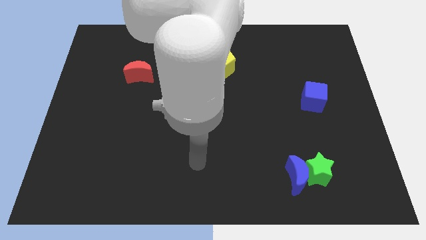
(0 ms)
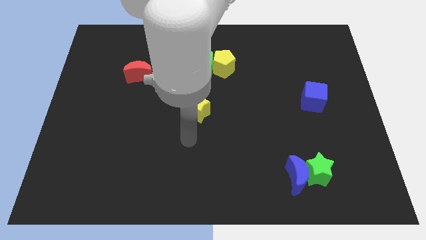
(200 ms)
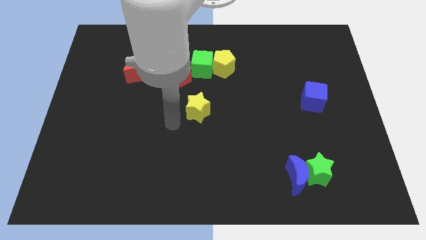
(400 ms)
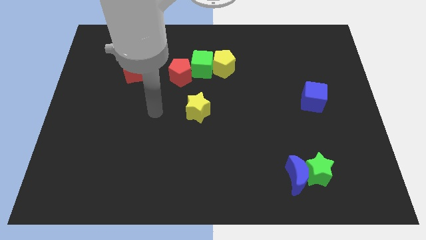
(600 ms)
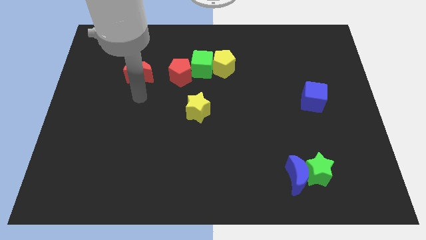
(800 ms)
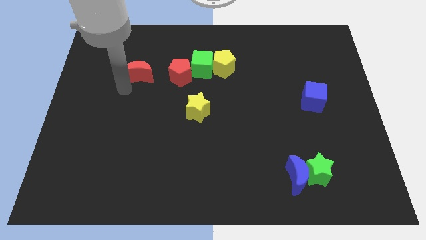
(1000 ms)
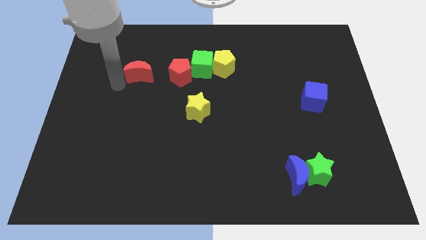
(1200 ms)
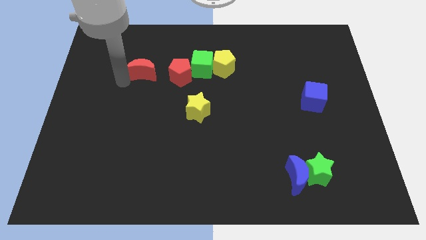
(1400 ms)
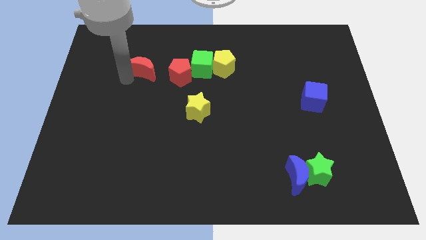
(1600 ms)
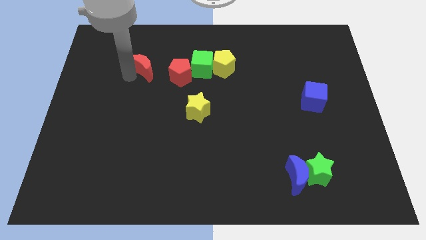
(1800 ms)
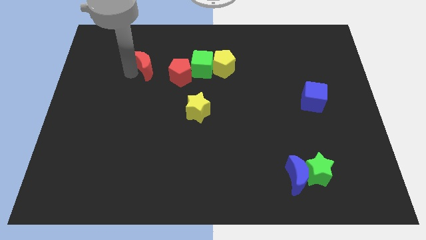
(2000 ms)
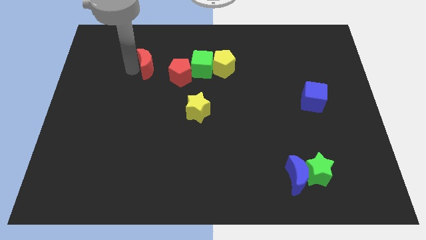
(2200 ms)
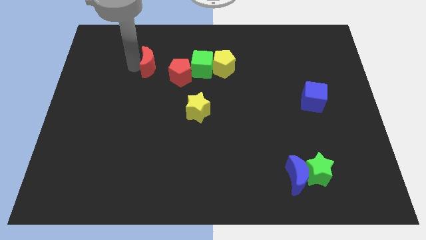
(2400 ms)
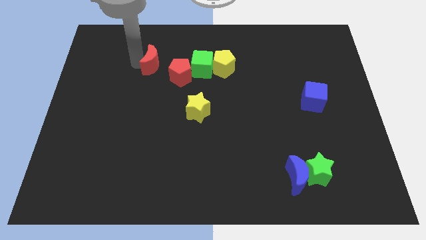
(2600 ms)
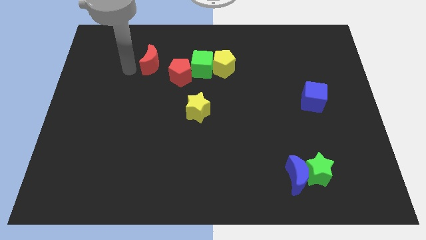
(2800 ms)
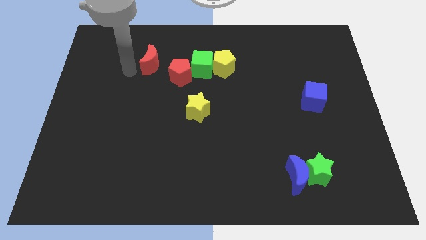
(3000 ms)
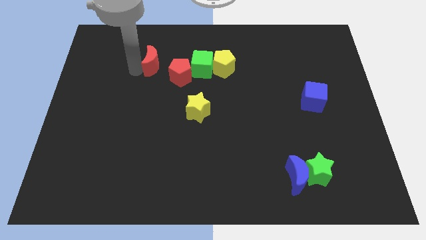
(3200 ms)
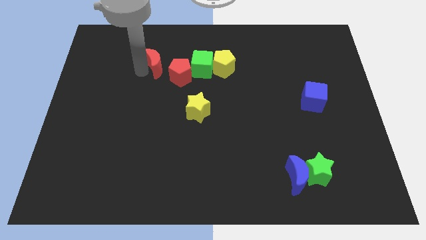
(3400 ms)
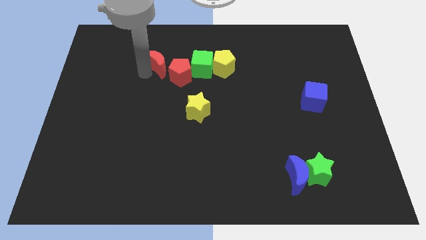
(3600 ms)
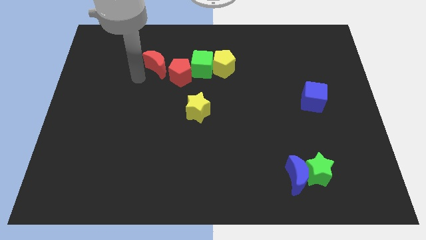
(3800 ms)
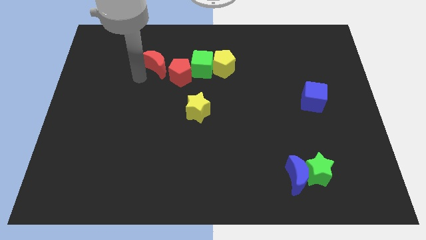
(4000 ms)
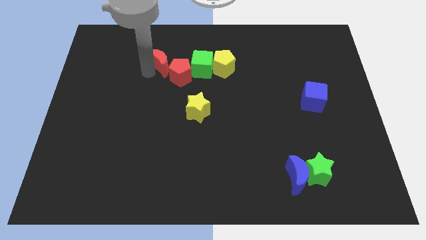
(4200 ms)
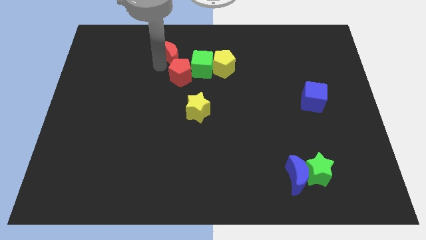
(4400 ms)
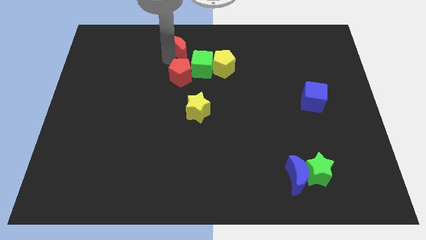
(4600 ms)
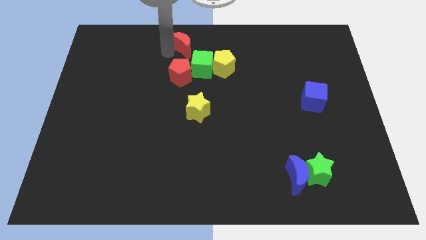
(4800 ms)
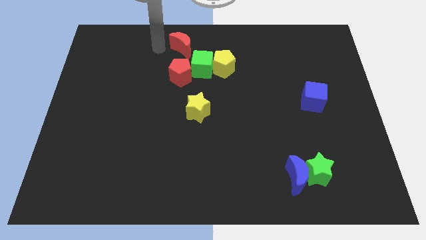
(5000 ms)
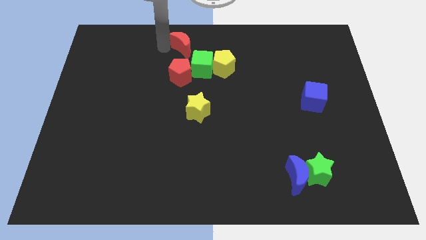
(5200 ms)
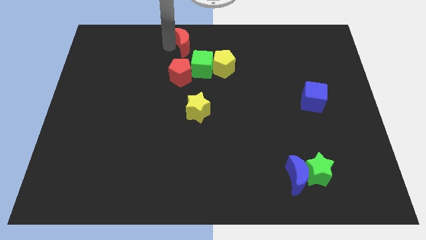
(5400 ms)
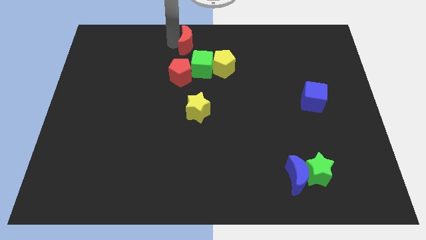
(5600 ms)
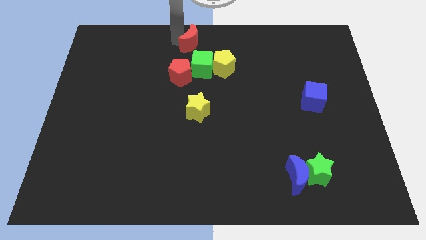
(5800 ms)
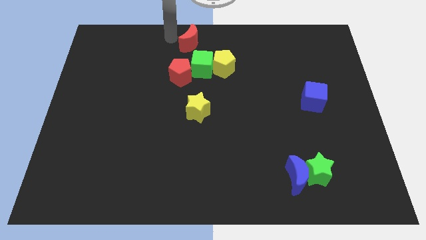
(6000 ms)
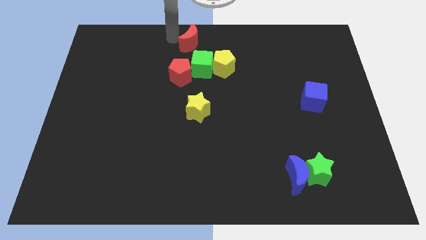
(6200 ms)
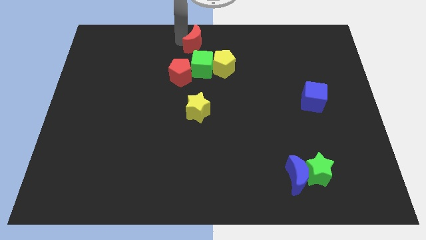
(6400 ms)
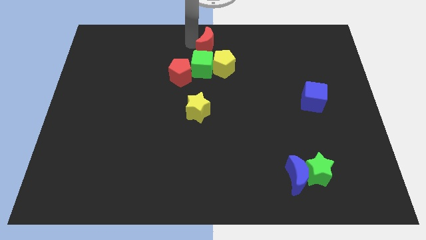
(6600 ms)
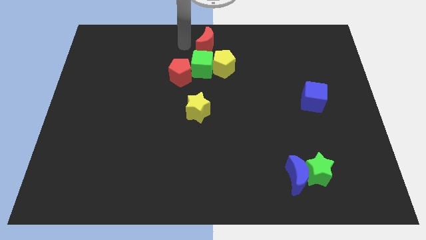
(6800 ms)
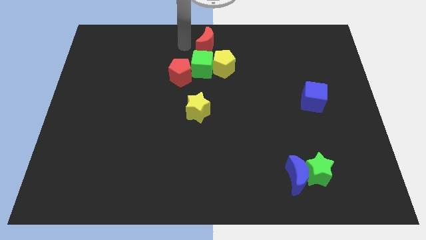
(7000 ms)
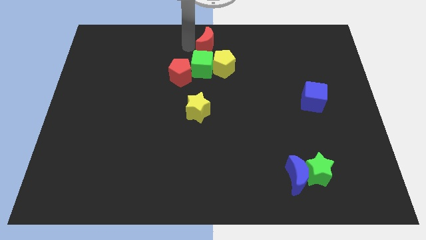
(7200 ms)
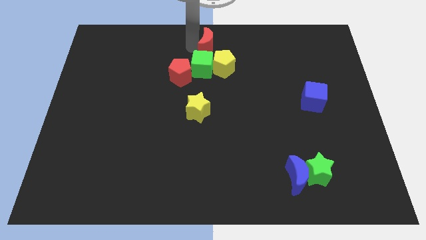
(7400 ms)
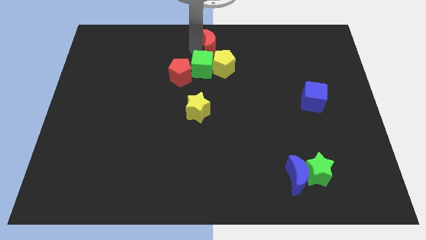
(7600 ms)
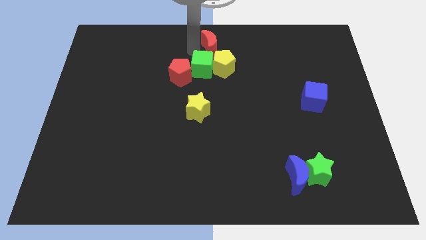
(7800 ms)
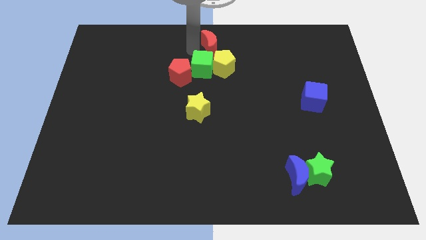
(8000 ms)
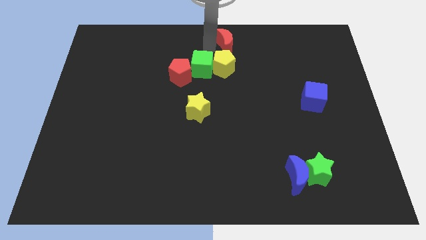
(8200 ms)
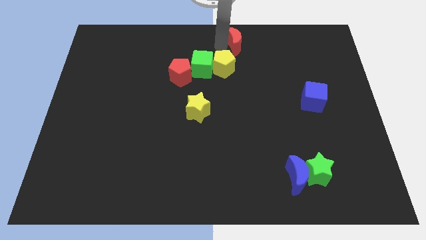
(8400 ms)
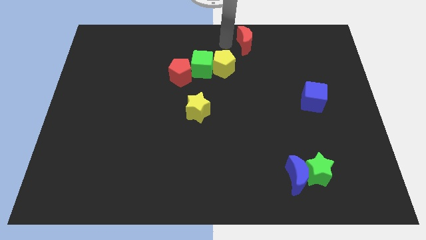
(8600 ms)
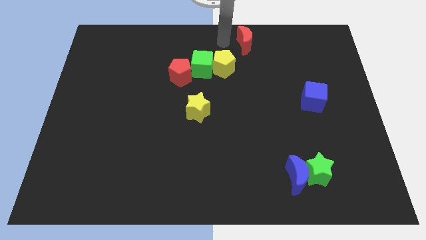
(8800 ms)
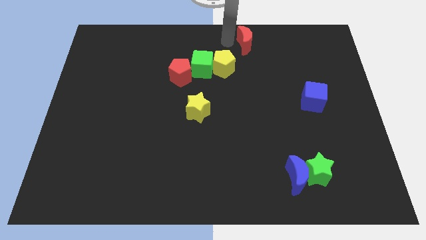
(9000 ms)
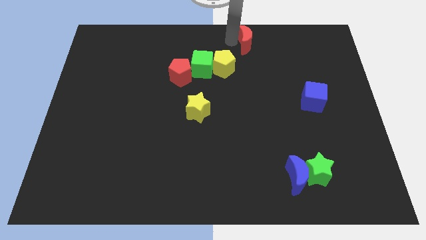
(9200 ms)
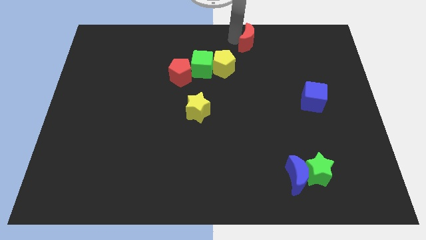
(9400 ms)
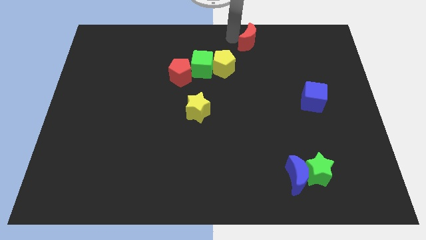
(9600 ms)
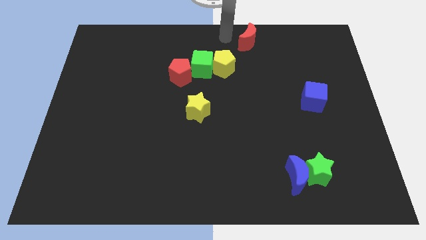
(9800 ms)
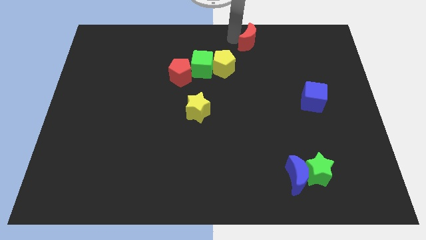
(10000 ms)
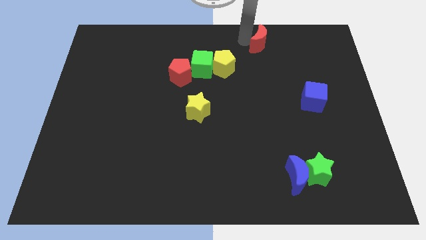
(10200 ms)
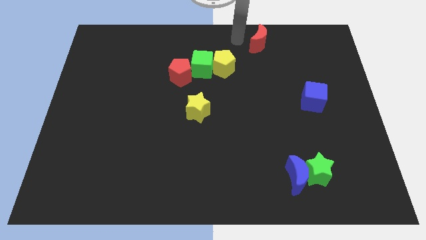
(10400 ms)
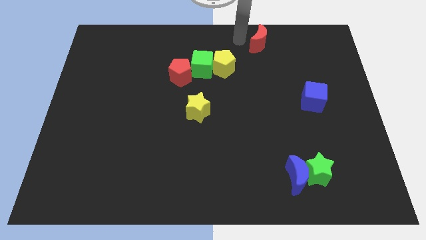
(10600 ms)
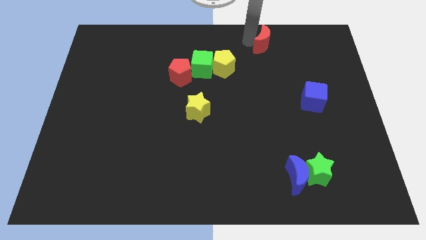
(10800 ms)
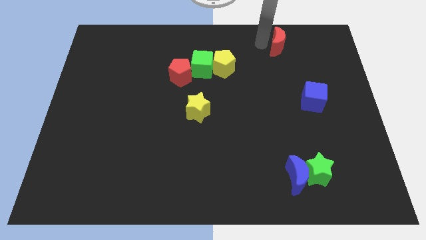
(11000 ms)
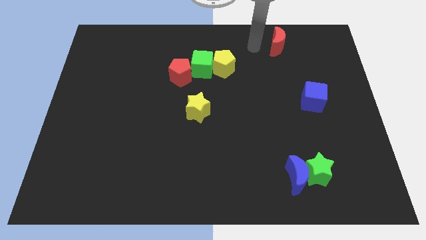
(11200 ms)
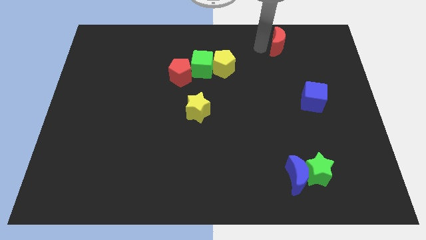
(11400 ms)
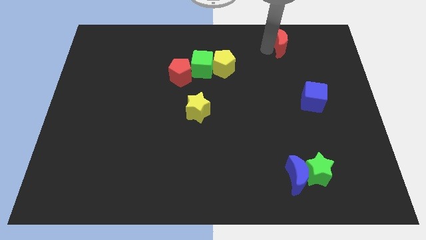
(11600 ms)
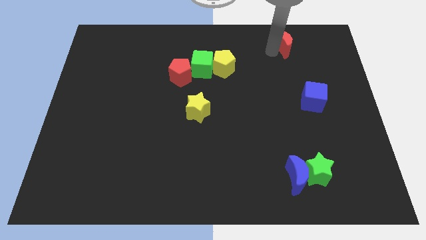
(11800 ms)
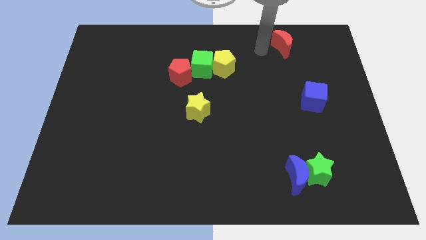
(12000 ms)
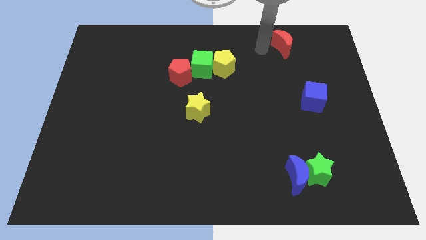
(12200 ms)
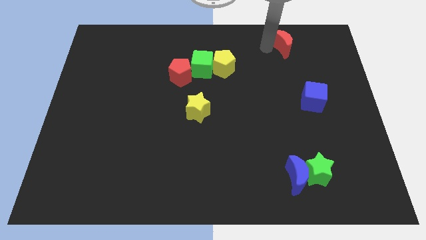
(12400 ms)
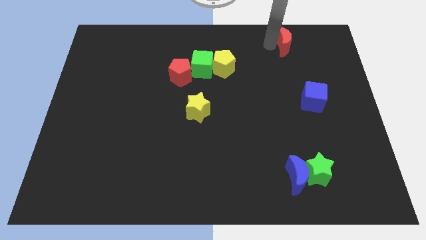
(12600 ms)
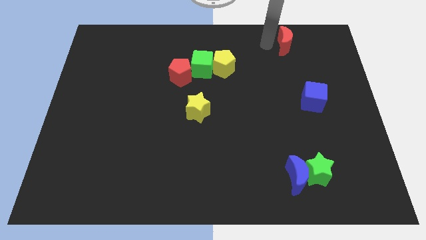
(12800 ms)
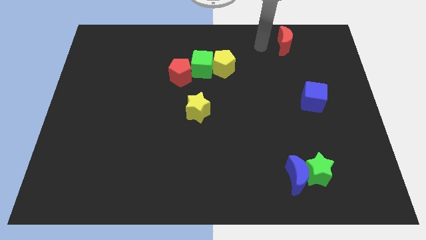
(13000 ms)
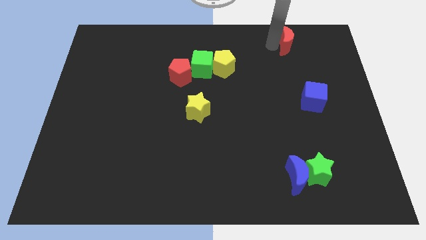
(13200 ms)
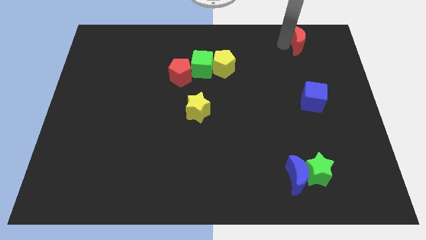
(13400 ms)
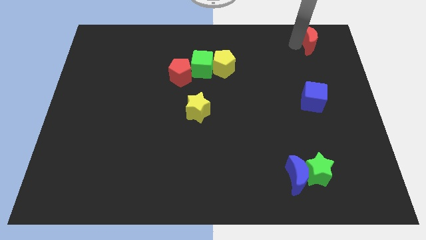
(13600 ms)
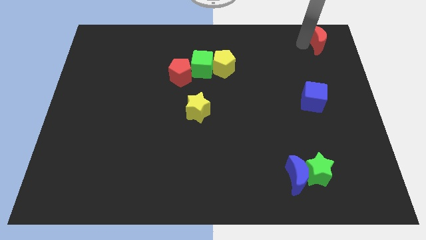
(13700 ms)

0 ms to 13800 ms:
put the red moon to the top right of the board
